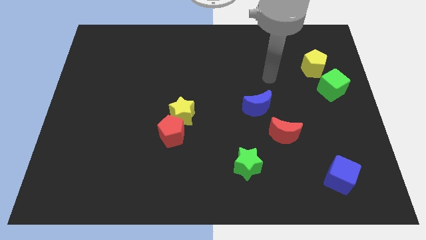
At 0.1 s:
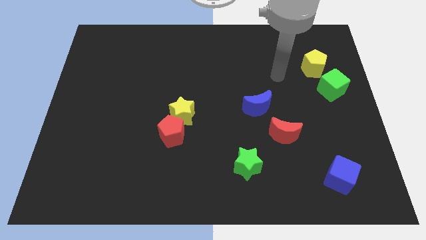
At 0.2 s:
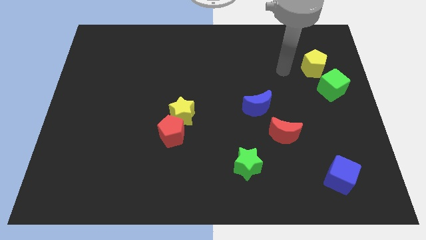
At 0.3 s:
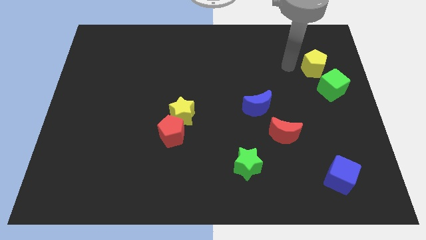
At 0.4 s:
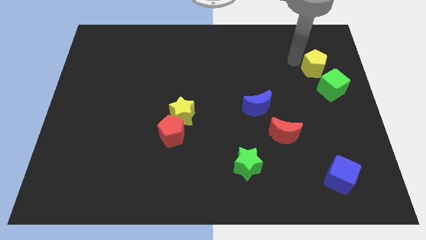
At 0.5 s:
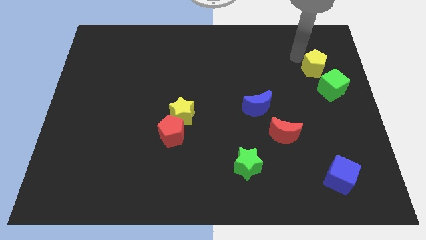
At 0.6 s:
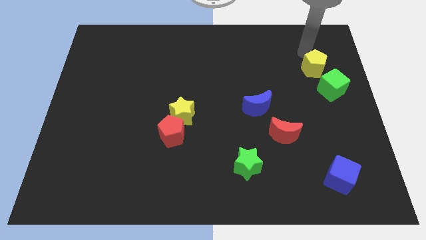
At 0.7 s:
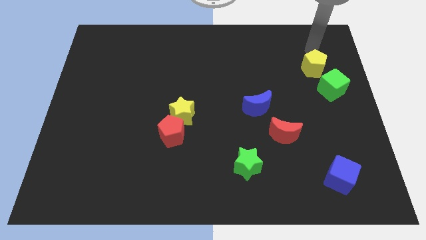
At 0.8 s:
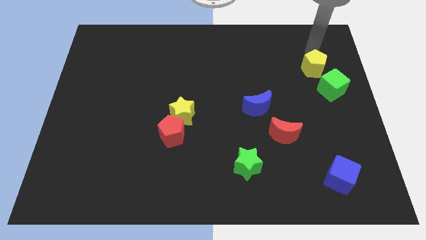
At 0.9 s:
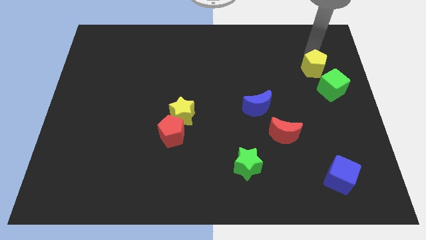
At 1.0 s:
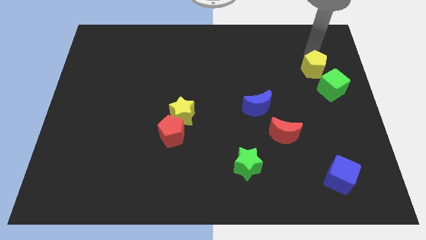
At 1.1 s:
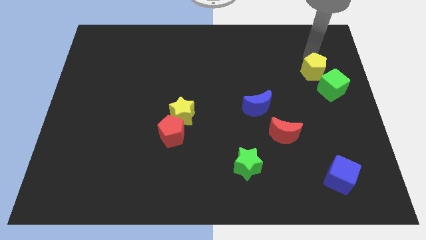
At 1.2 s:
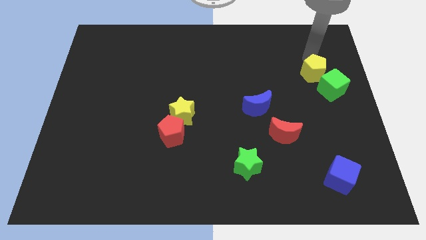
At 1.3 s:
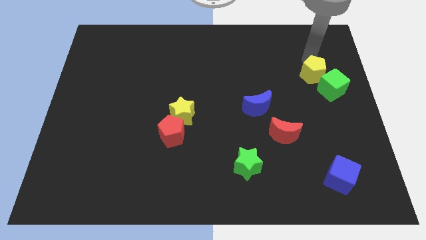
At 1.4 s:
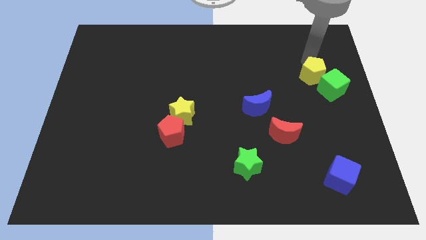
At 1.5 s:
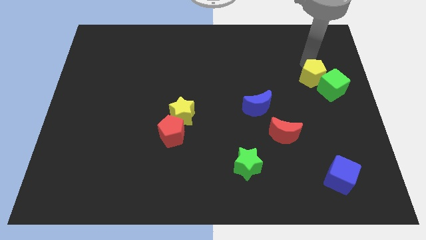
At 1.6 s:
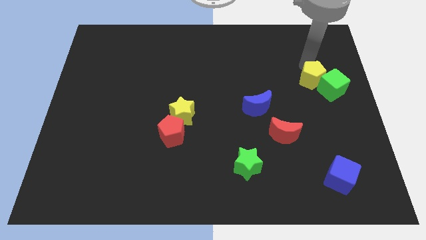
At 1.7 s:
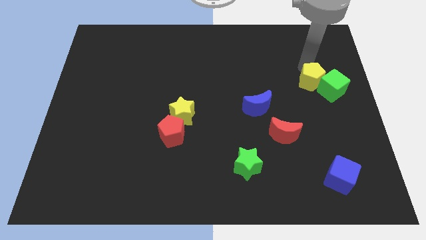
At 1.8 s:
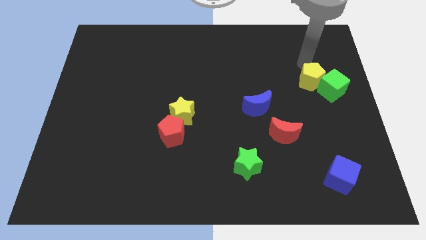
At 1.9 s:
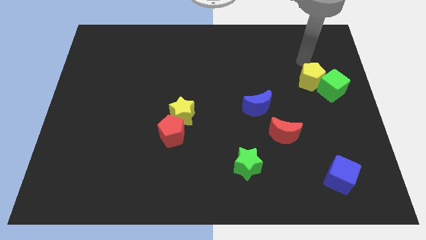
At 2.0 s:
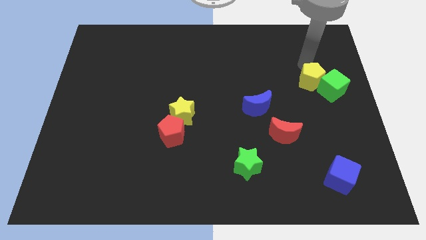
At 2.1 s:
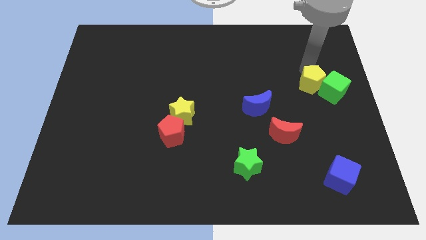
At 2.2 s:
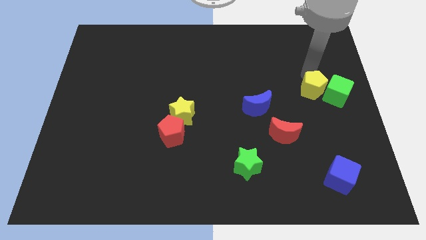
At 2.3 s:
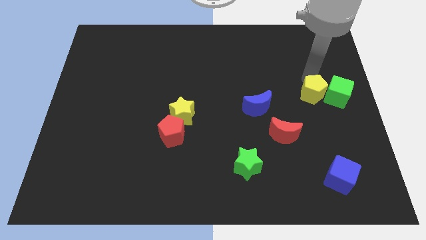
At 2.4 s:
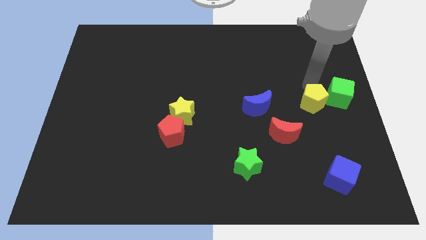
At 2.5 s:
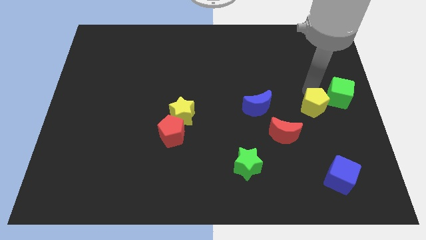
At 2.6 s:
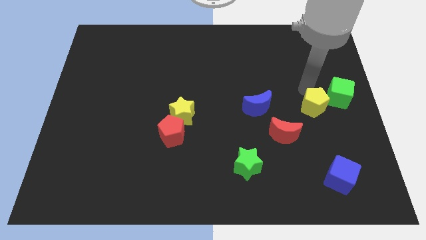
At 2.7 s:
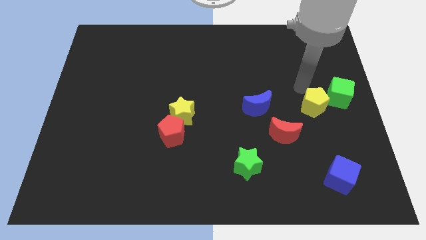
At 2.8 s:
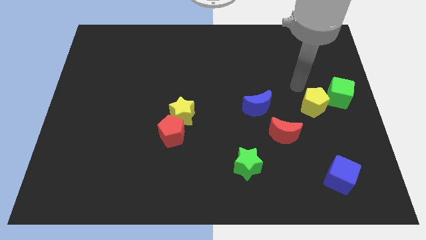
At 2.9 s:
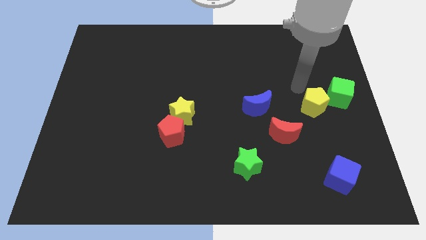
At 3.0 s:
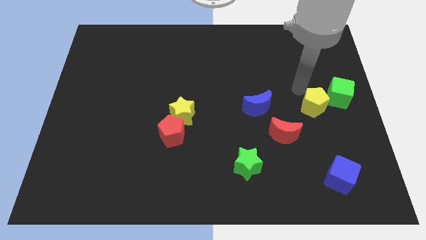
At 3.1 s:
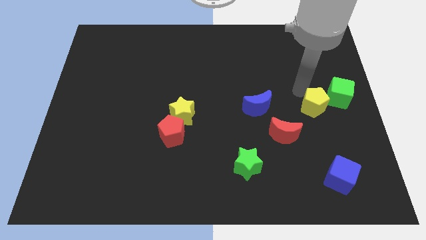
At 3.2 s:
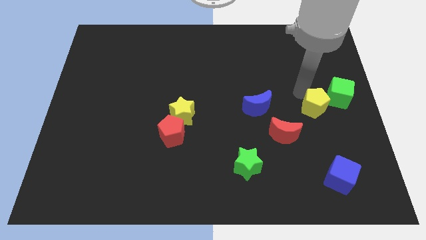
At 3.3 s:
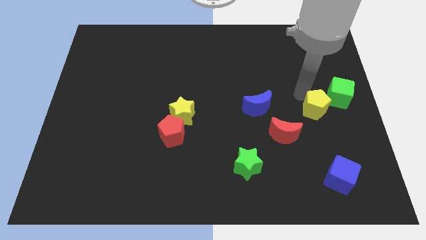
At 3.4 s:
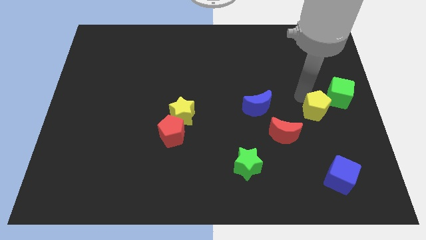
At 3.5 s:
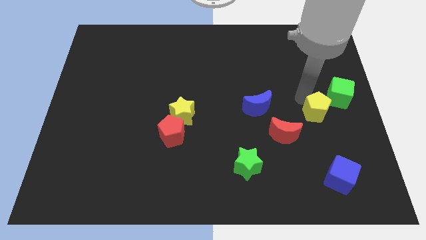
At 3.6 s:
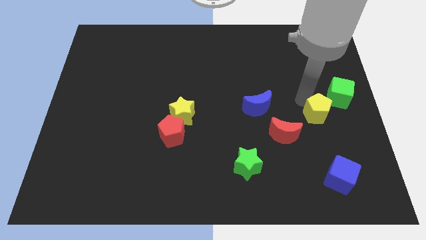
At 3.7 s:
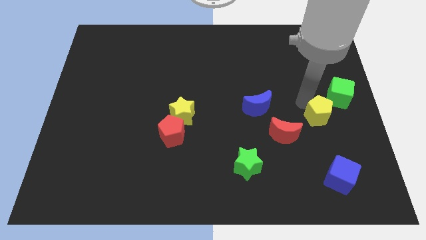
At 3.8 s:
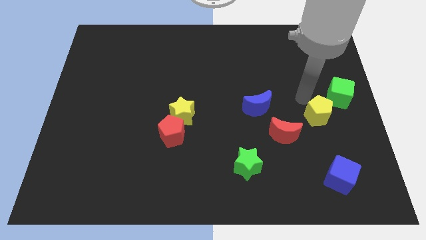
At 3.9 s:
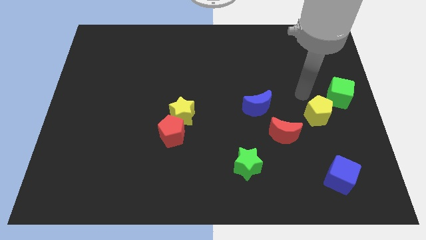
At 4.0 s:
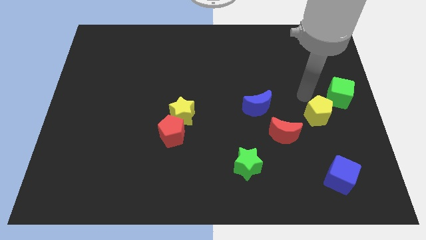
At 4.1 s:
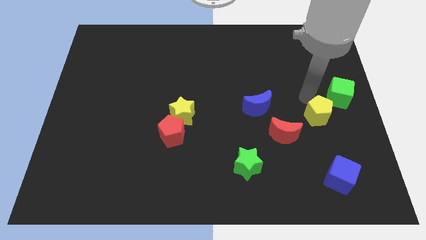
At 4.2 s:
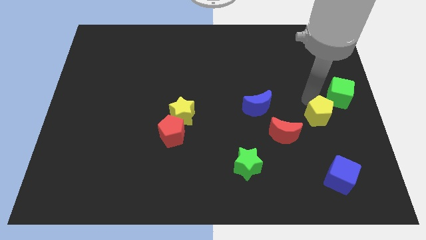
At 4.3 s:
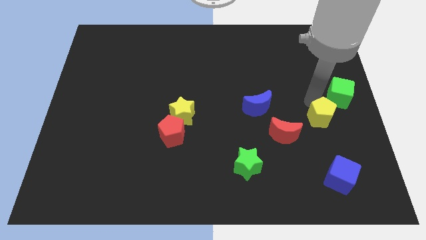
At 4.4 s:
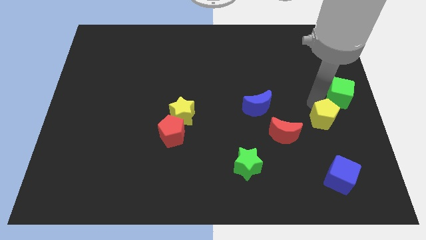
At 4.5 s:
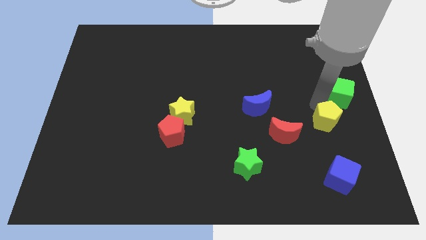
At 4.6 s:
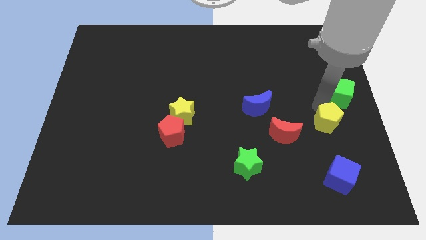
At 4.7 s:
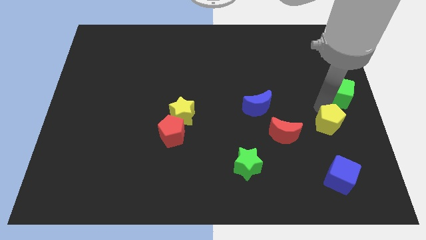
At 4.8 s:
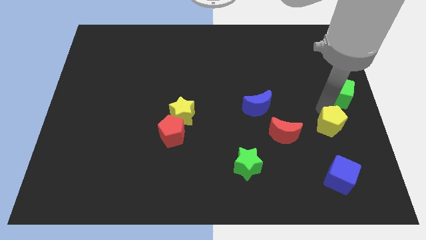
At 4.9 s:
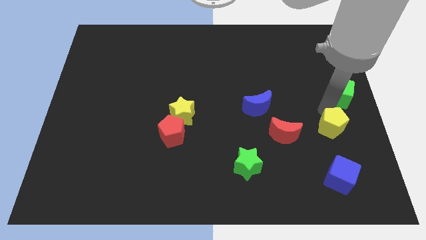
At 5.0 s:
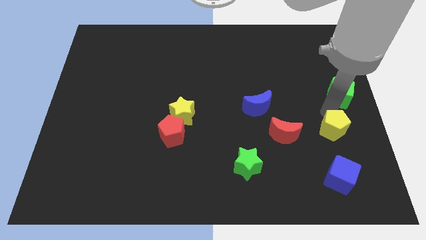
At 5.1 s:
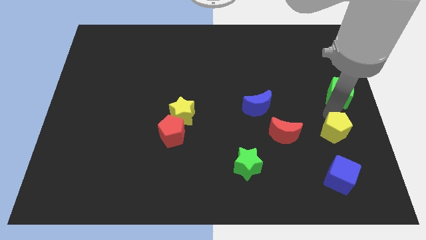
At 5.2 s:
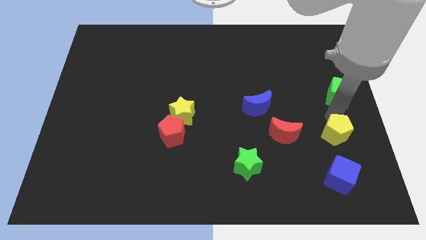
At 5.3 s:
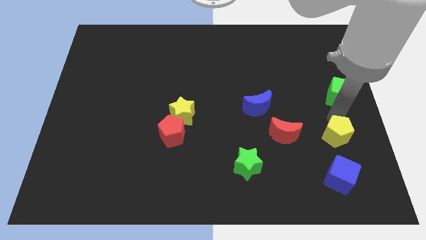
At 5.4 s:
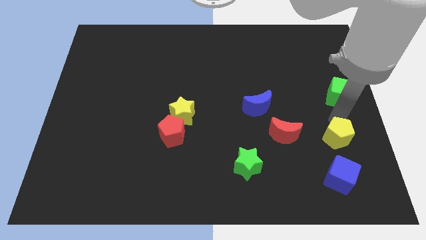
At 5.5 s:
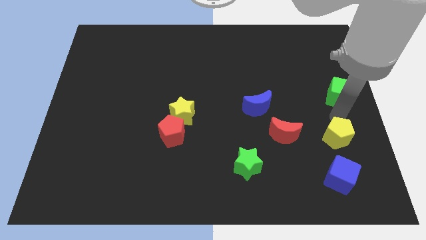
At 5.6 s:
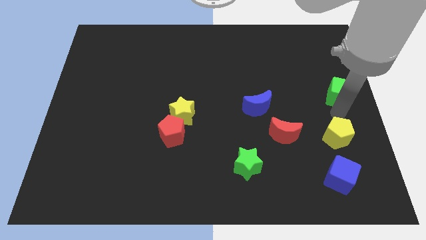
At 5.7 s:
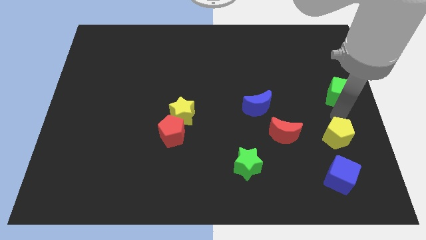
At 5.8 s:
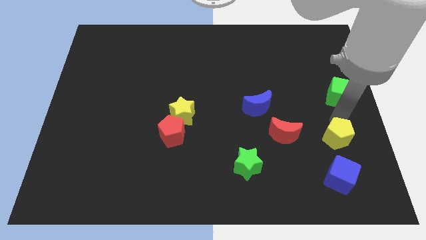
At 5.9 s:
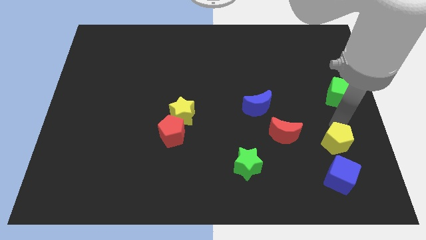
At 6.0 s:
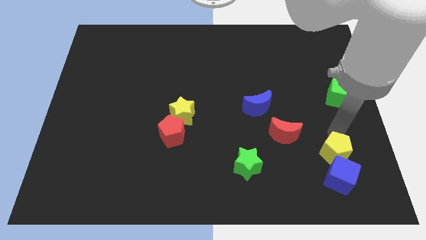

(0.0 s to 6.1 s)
push the yellow pentagon towards the blue cube
